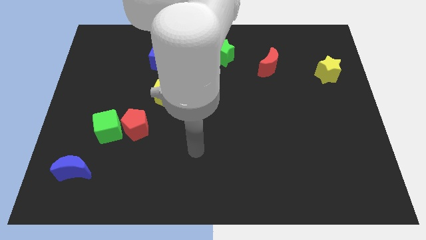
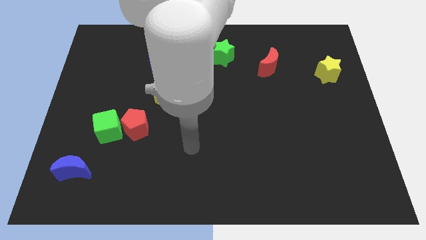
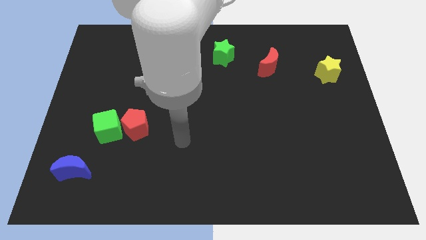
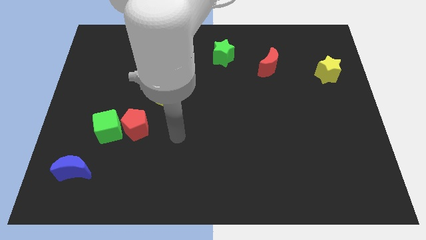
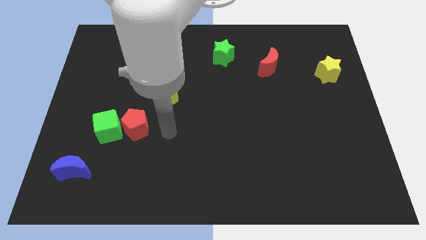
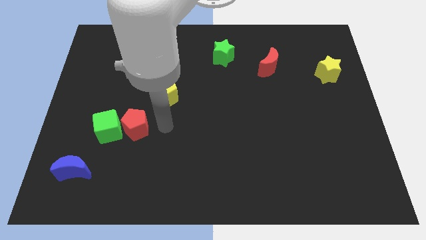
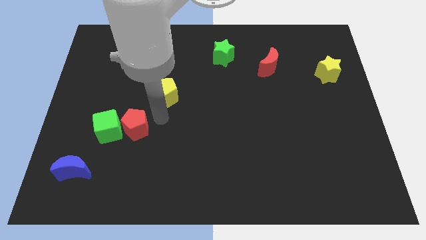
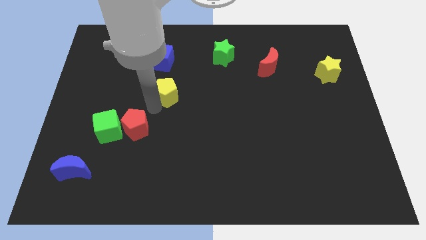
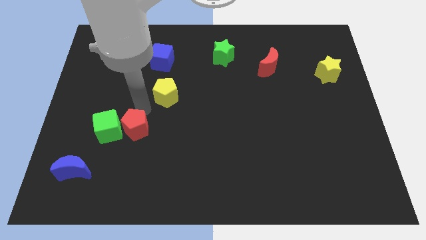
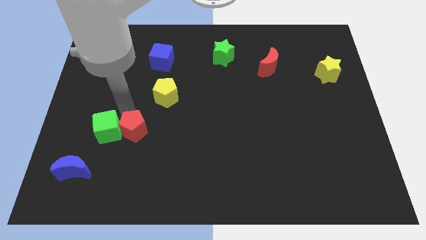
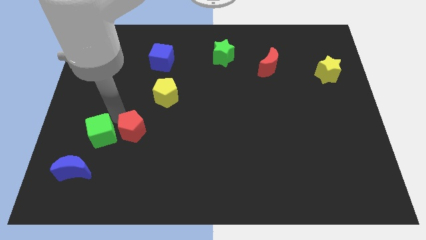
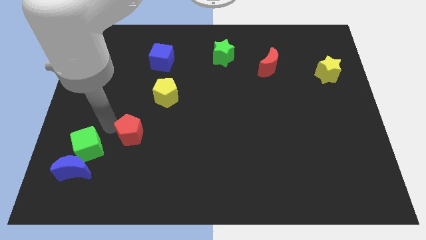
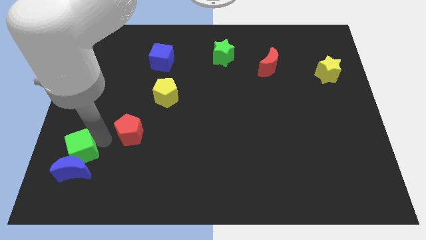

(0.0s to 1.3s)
pull the red pentagon apart from the green cube

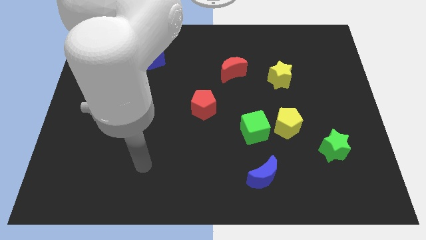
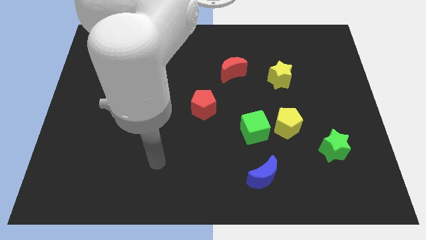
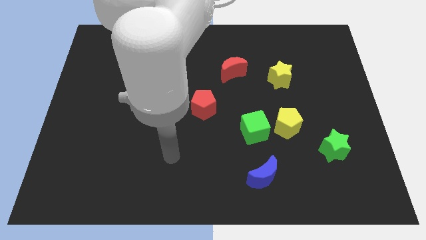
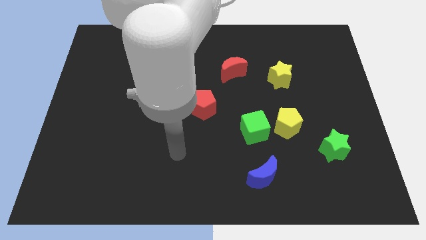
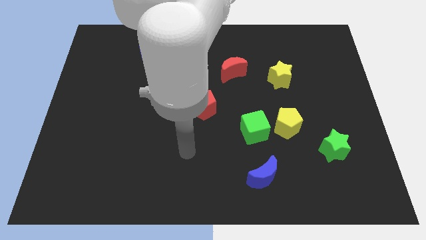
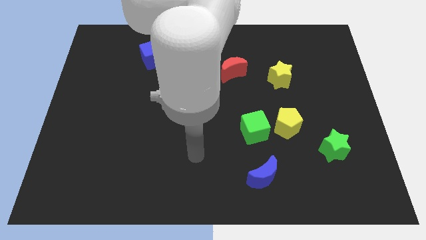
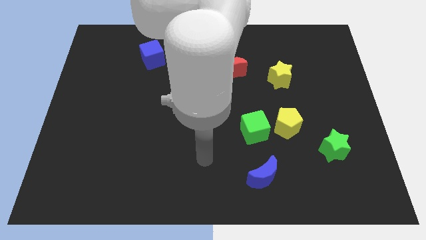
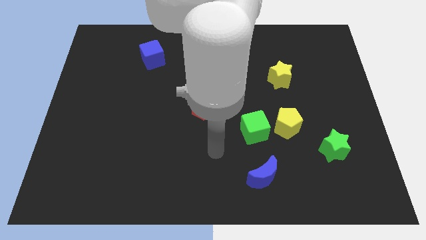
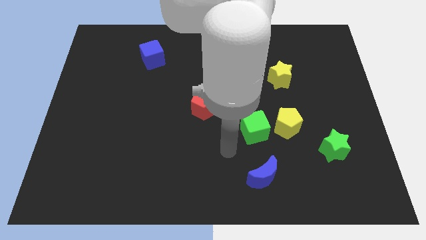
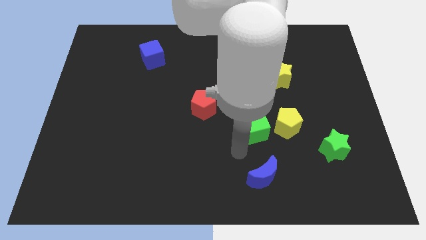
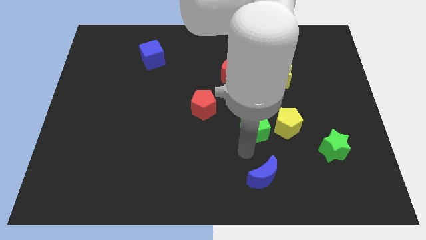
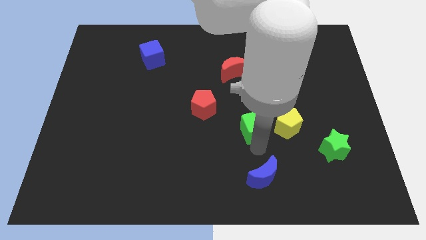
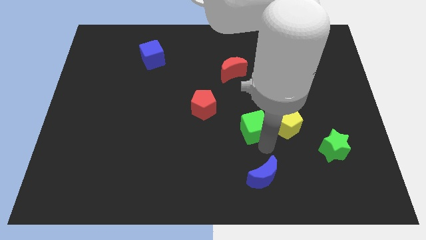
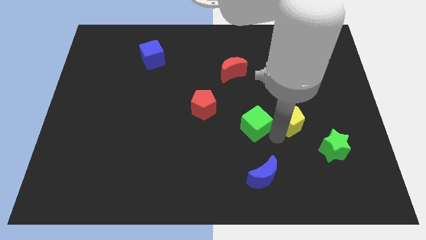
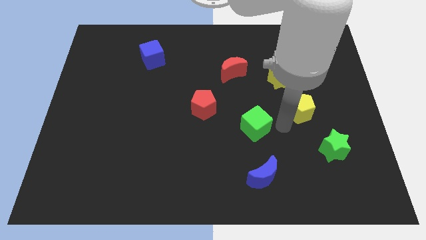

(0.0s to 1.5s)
move the green cube away from the yellow pentagon

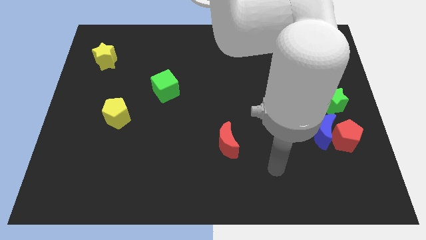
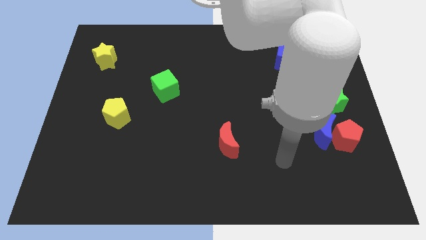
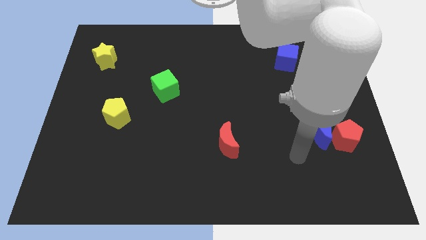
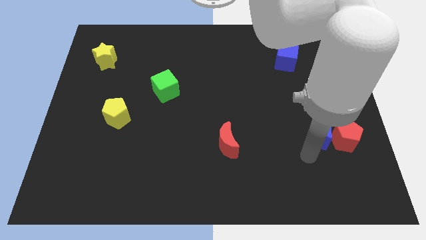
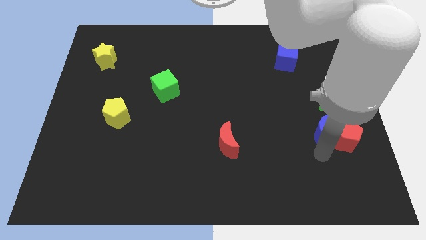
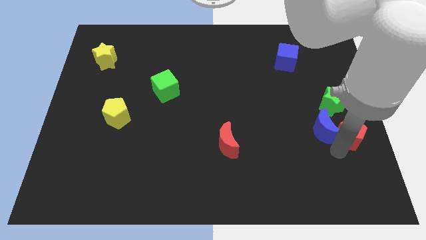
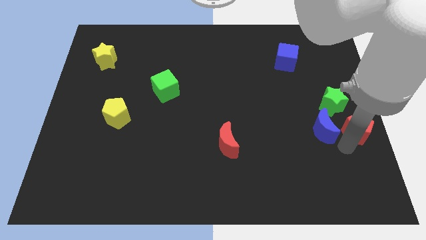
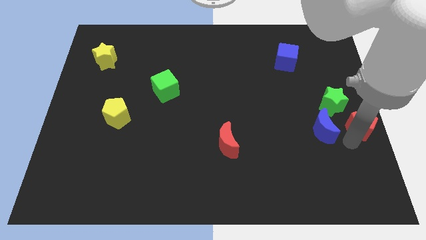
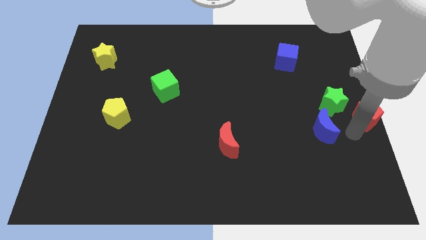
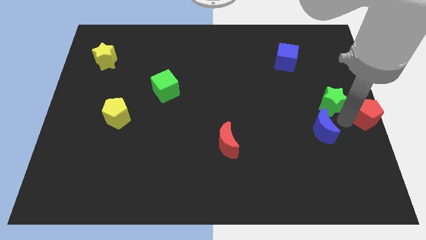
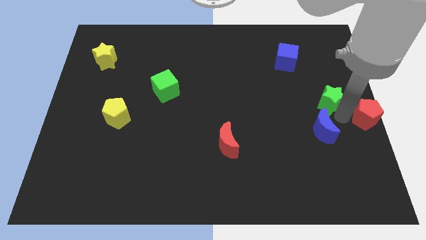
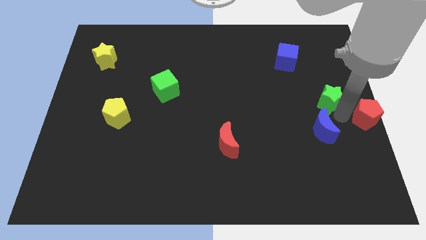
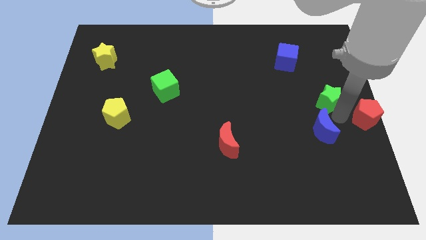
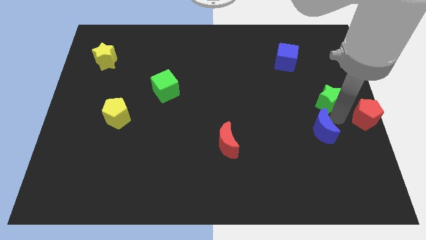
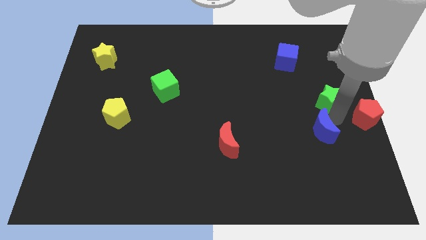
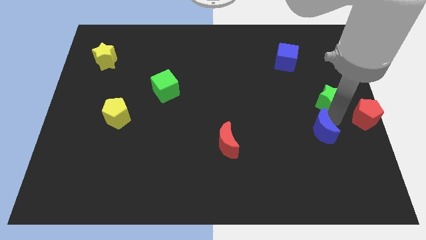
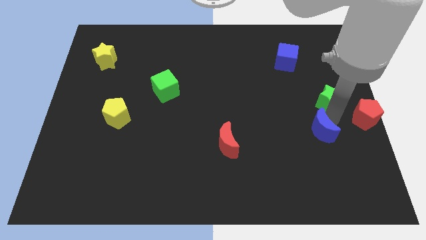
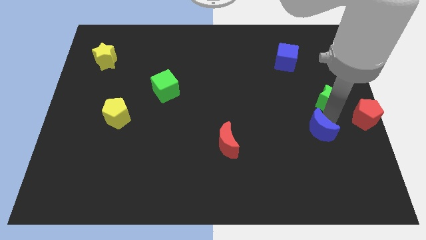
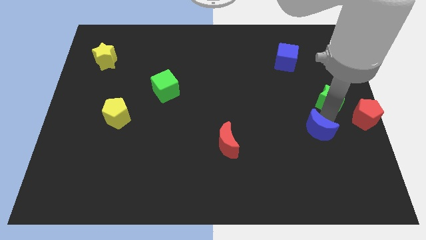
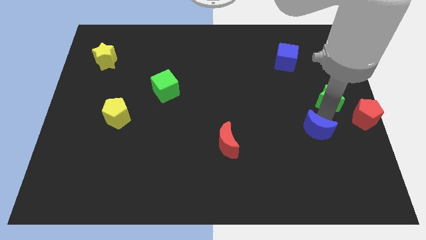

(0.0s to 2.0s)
separate the blue moon from the red pentagon and green star

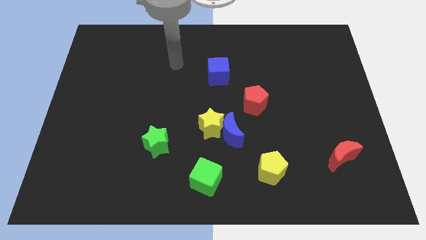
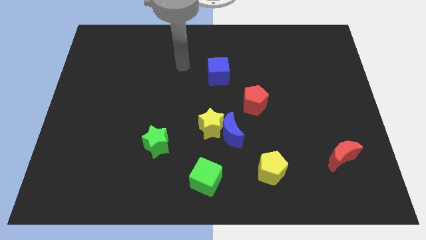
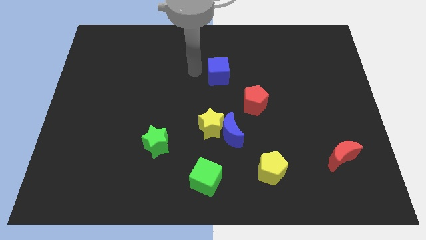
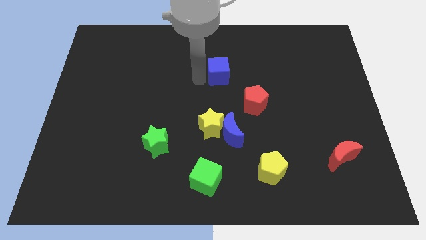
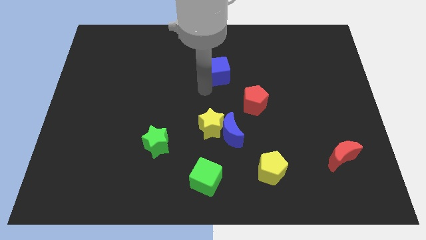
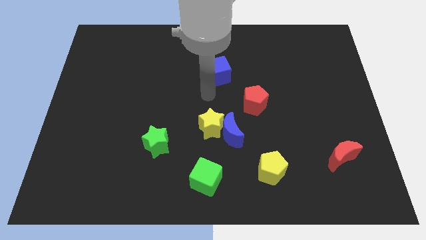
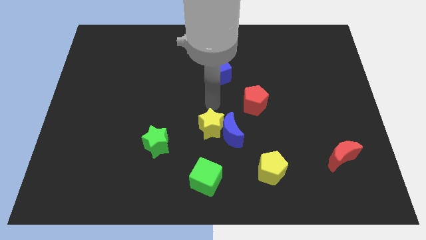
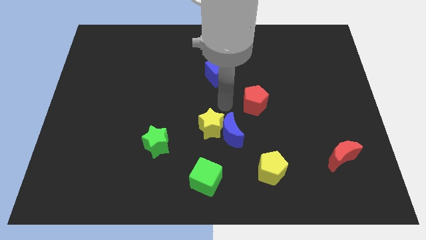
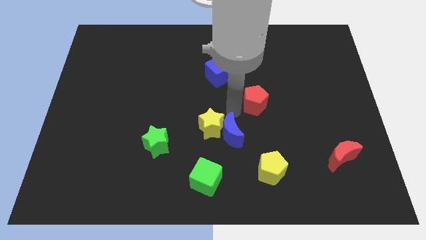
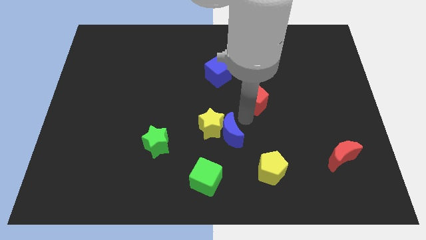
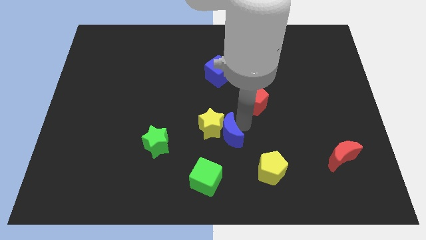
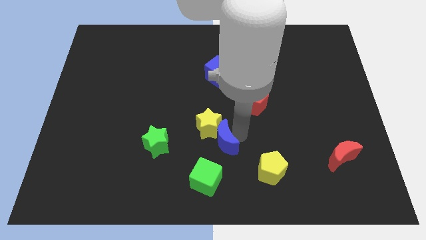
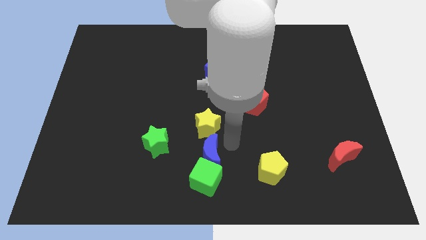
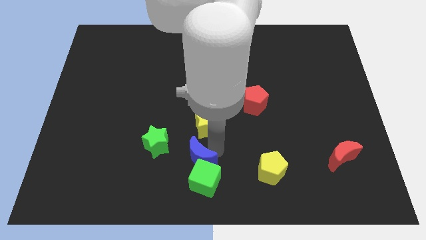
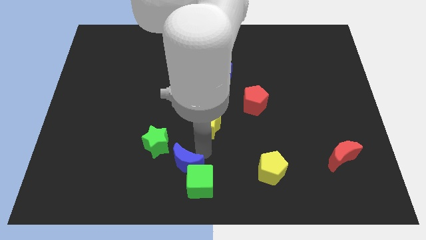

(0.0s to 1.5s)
pull the yellow star apart from the blue moon

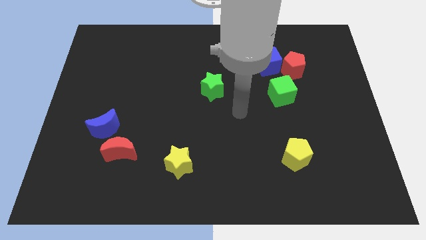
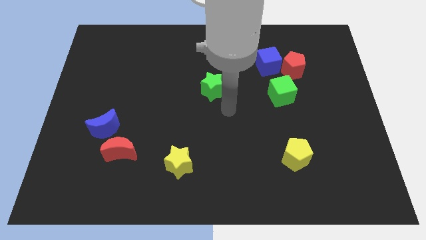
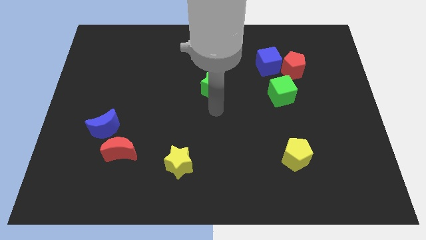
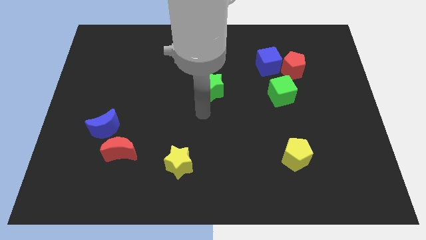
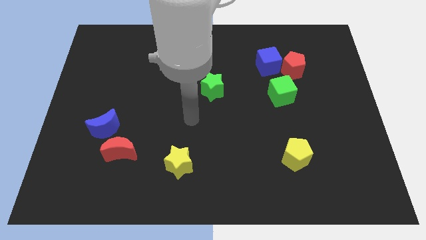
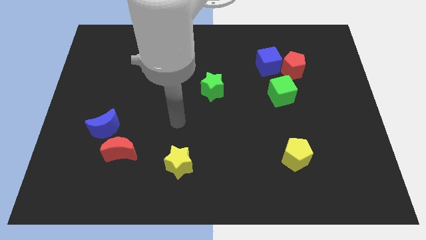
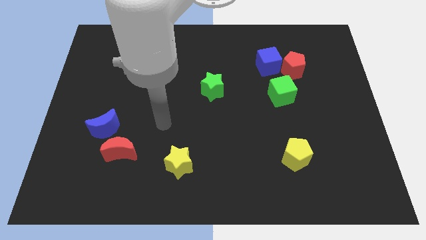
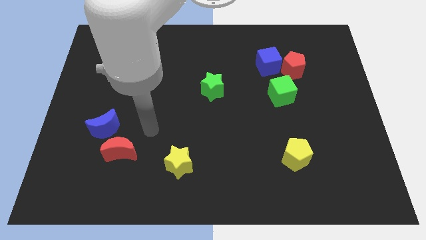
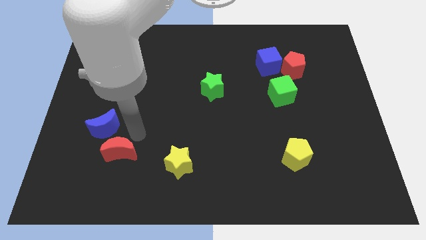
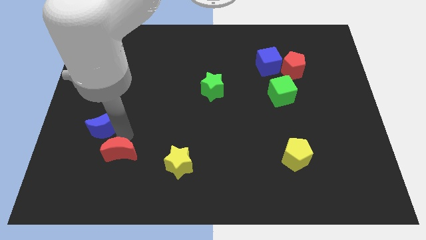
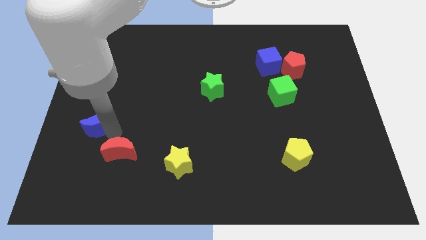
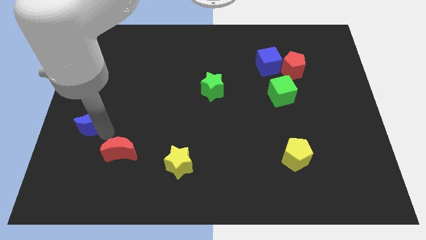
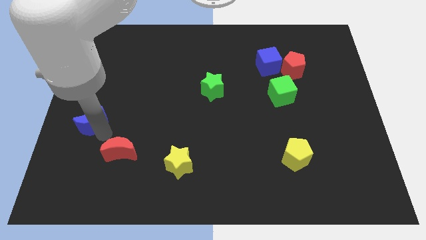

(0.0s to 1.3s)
separate the red moon from the blue moon

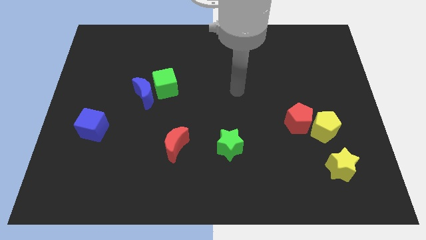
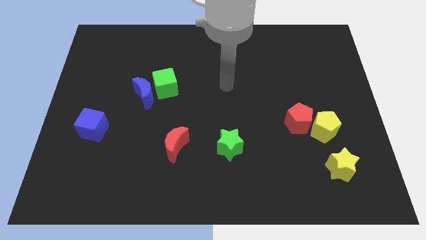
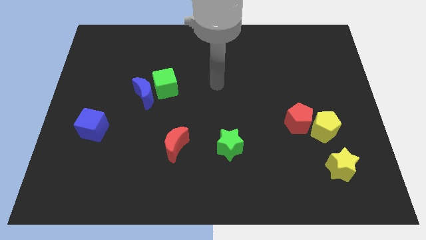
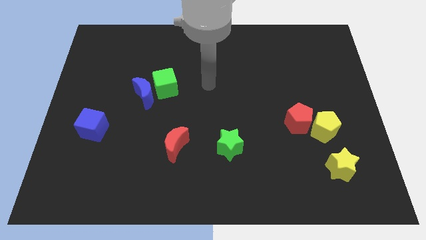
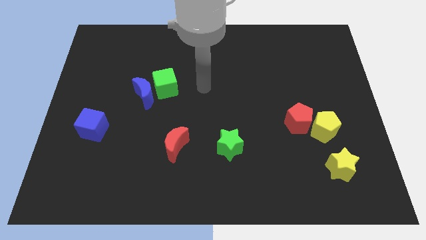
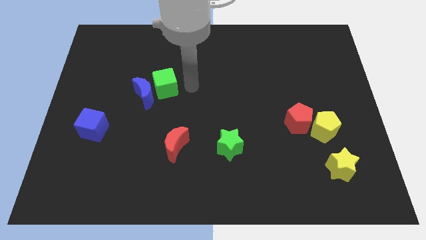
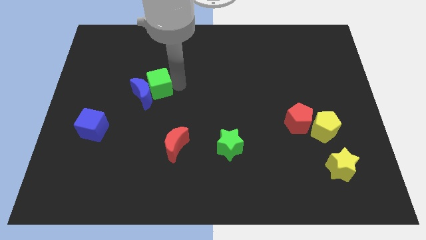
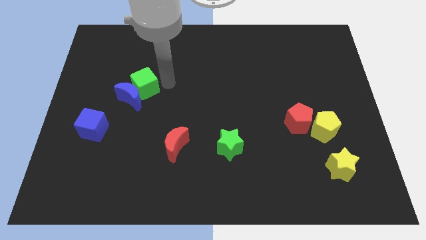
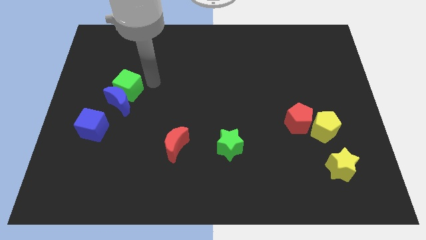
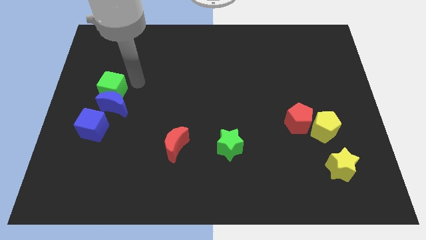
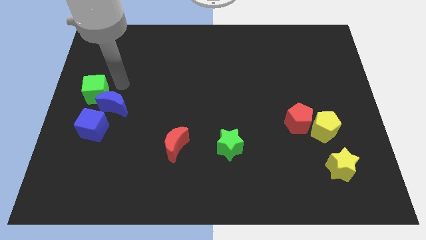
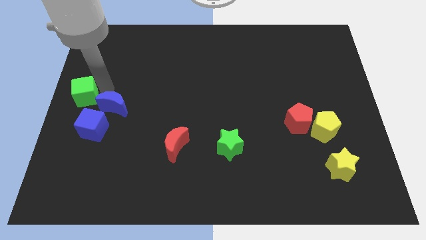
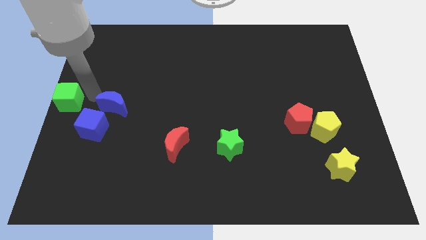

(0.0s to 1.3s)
pull the blue moon apart from the green cube

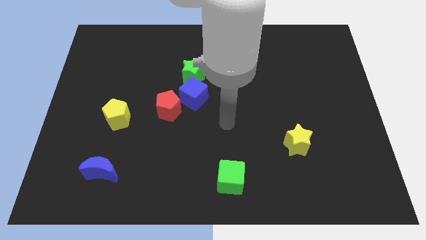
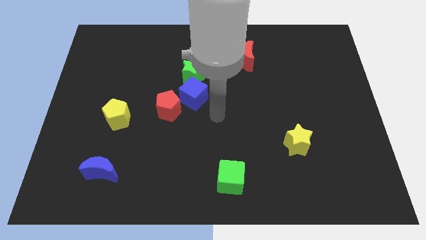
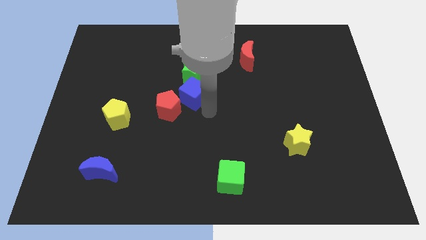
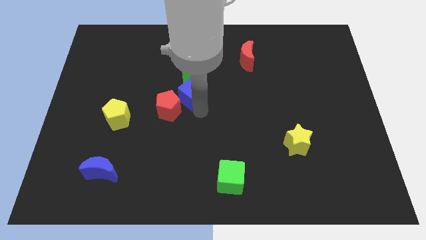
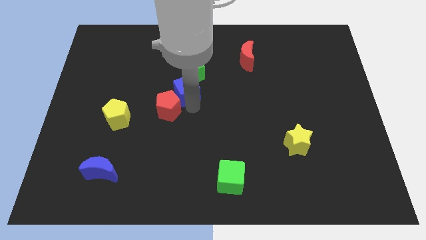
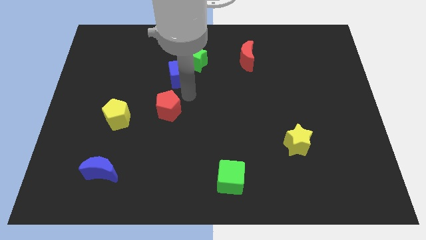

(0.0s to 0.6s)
pull the red pentagon apart from the blue cube
